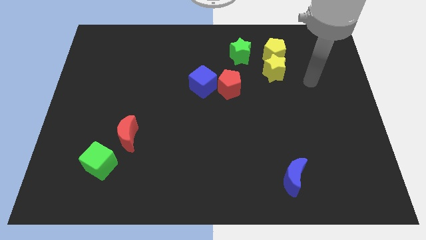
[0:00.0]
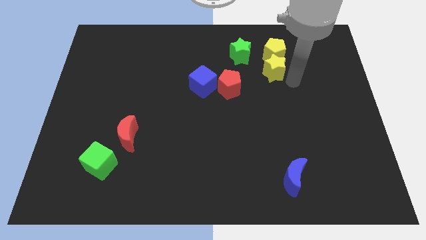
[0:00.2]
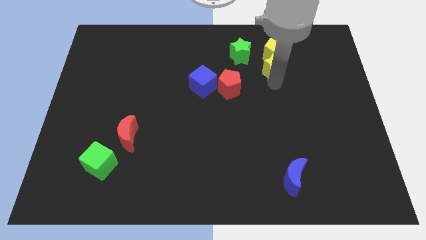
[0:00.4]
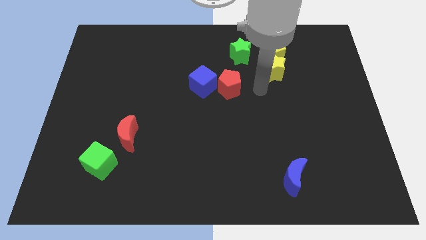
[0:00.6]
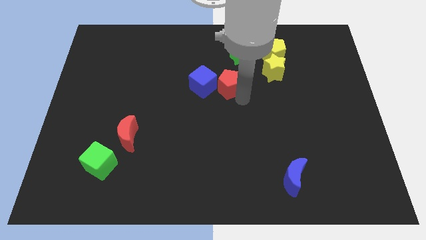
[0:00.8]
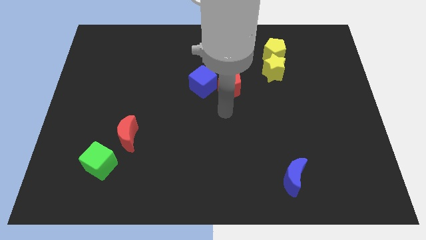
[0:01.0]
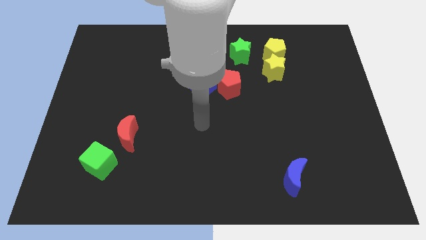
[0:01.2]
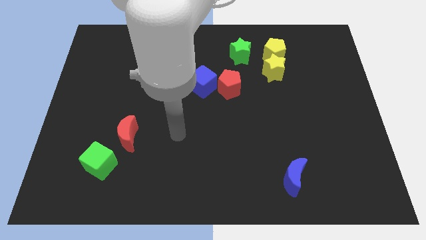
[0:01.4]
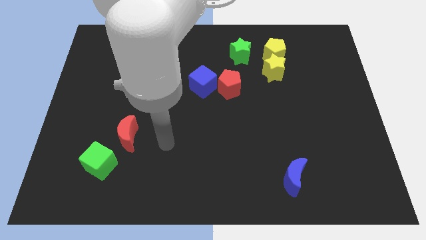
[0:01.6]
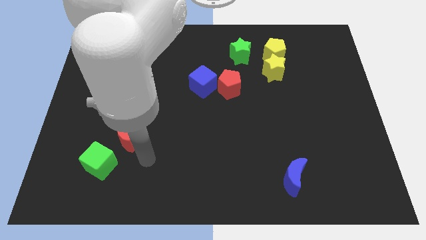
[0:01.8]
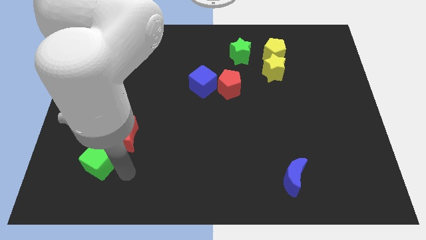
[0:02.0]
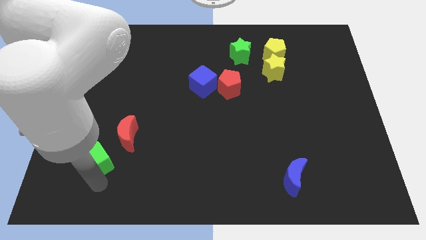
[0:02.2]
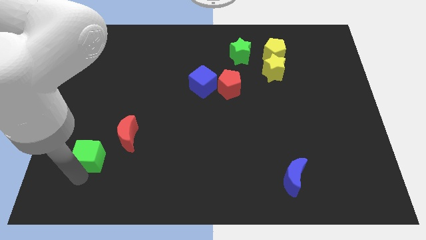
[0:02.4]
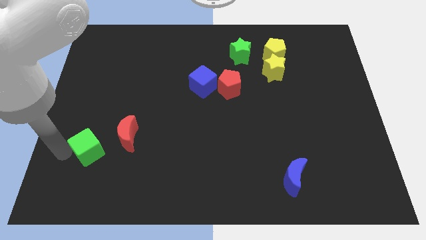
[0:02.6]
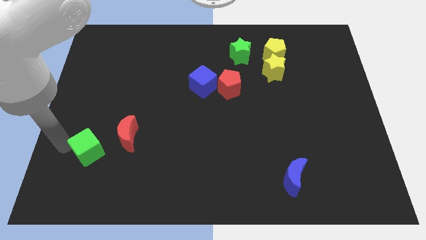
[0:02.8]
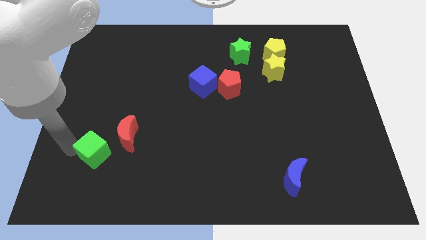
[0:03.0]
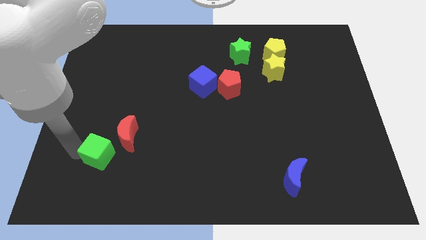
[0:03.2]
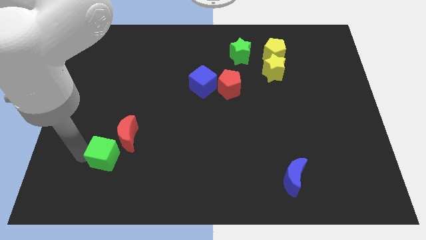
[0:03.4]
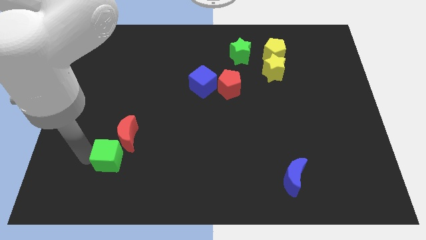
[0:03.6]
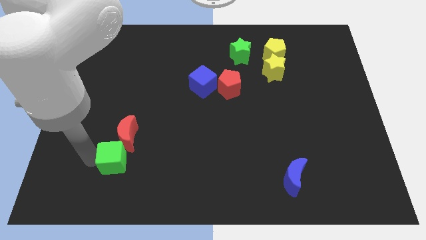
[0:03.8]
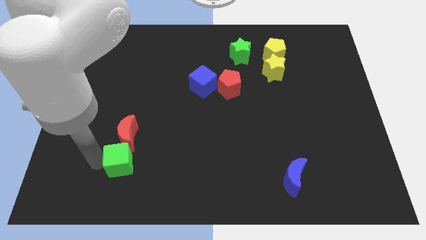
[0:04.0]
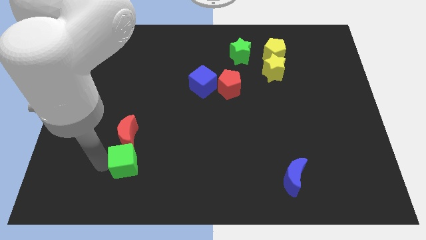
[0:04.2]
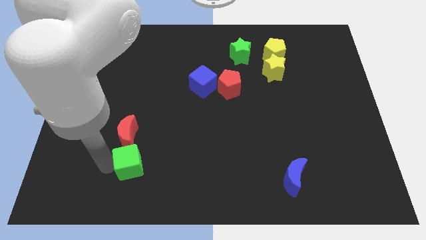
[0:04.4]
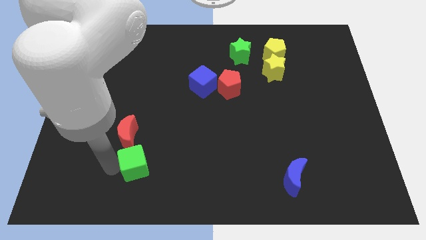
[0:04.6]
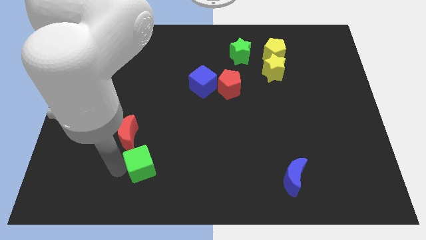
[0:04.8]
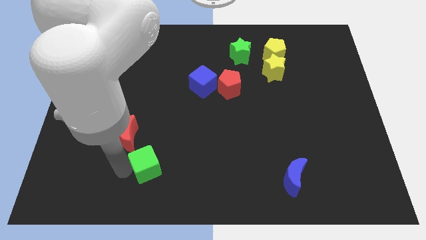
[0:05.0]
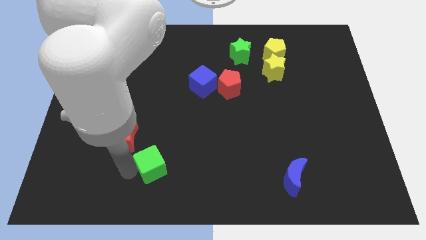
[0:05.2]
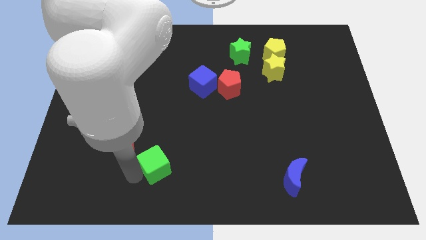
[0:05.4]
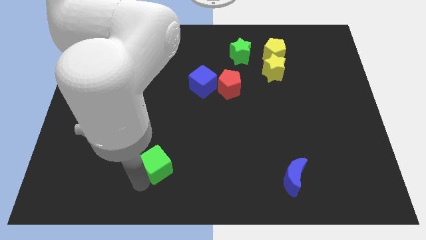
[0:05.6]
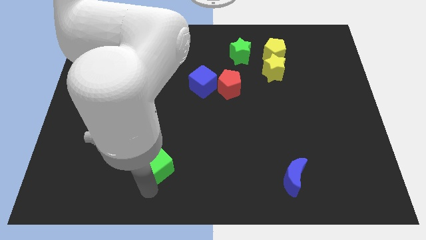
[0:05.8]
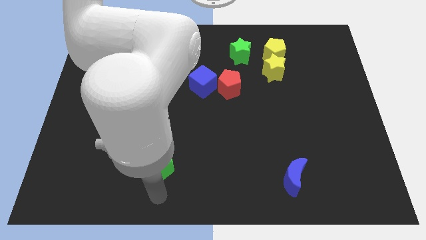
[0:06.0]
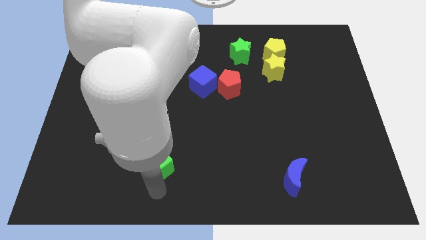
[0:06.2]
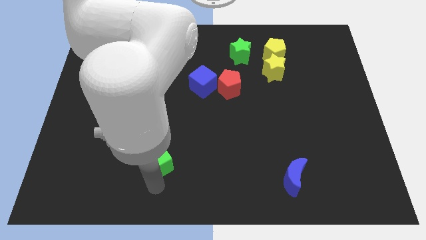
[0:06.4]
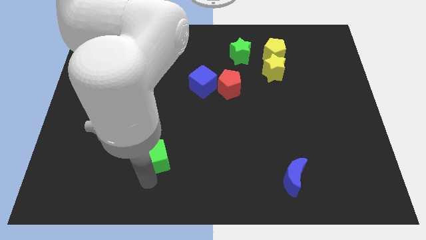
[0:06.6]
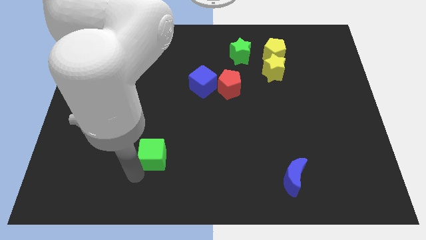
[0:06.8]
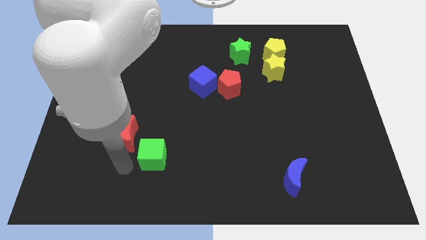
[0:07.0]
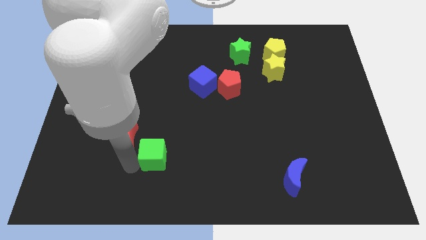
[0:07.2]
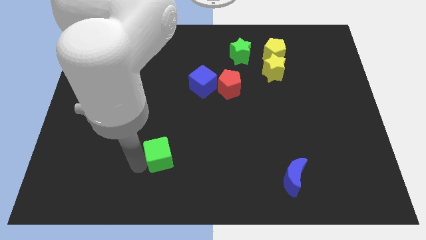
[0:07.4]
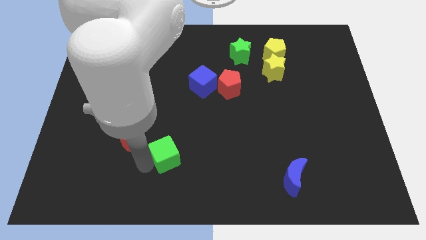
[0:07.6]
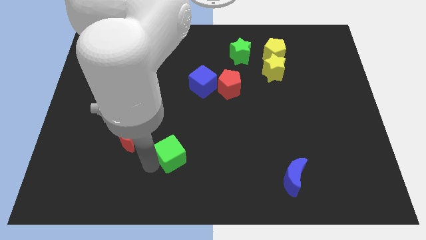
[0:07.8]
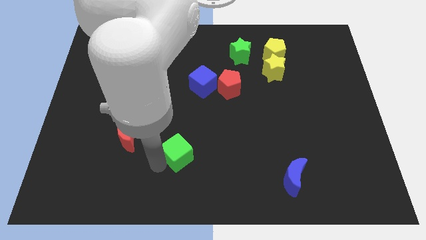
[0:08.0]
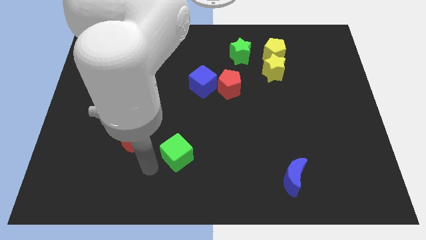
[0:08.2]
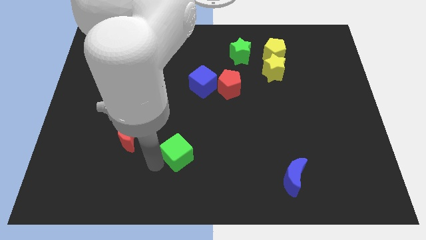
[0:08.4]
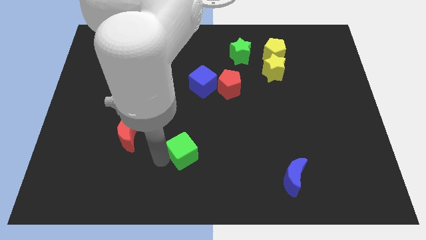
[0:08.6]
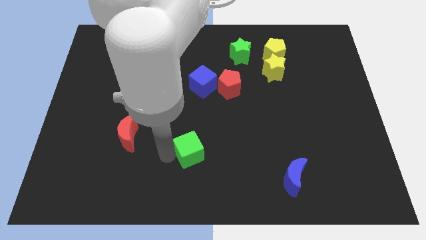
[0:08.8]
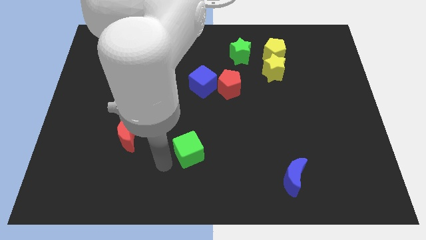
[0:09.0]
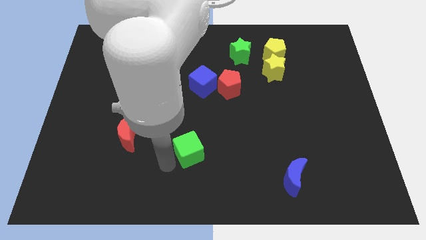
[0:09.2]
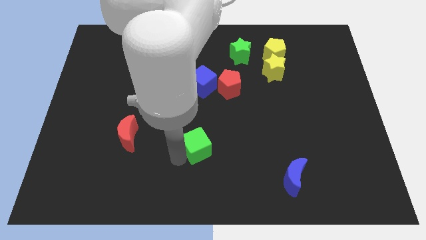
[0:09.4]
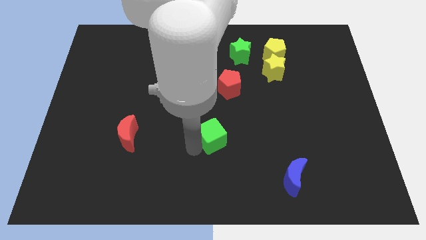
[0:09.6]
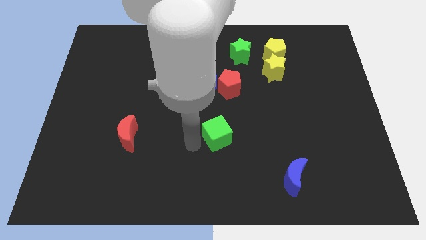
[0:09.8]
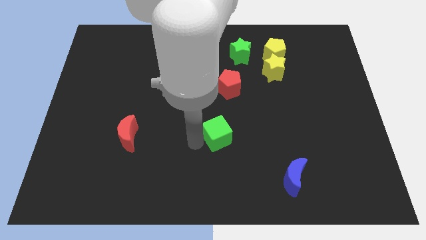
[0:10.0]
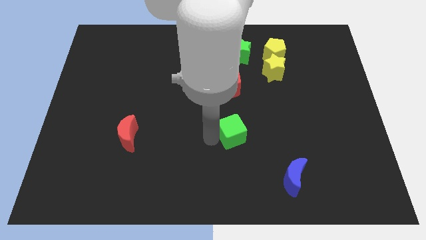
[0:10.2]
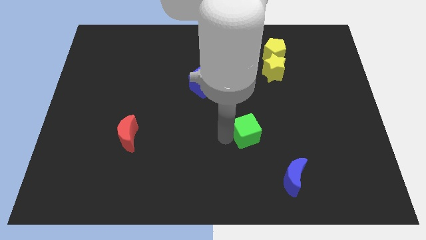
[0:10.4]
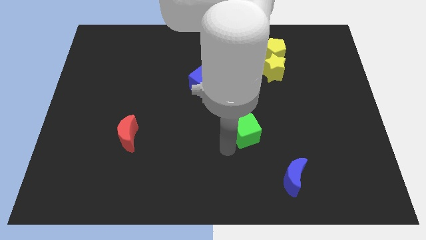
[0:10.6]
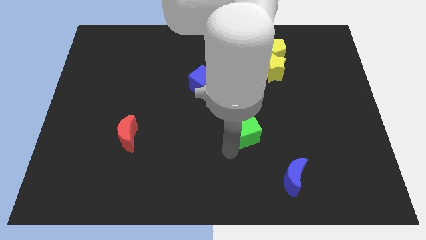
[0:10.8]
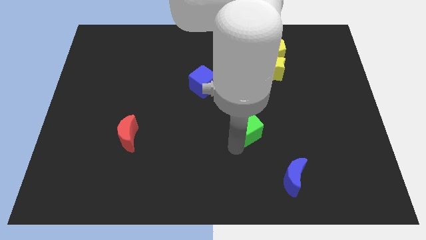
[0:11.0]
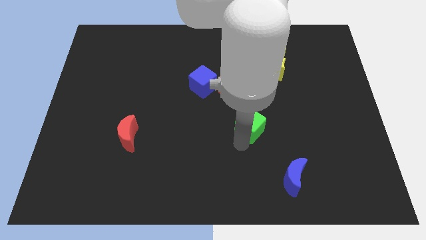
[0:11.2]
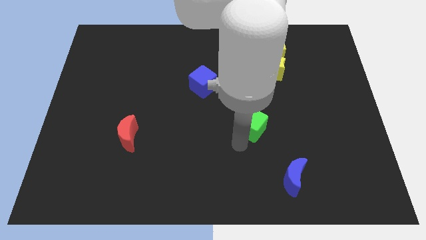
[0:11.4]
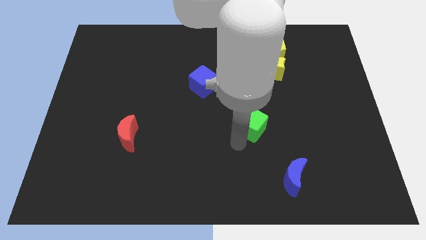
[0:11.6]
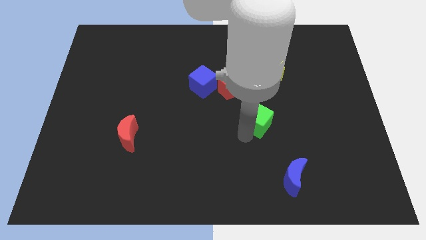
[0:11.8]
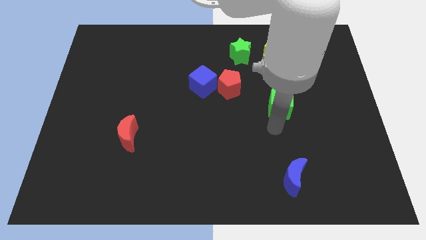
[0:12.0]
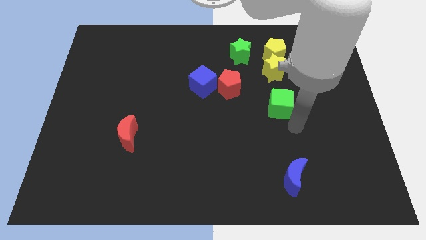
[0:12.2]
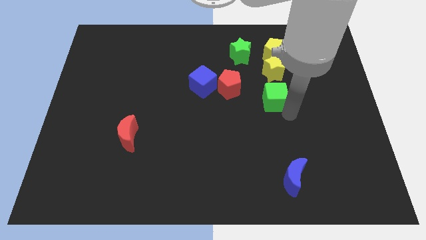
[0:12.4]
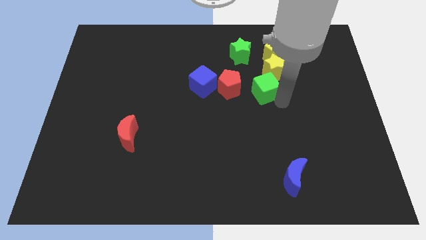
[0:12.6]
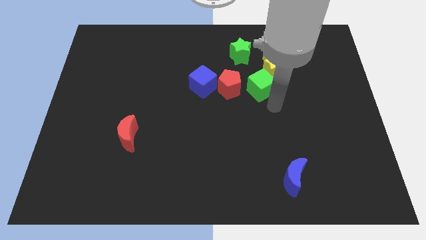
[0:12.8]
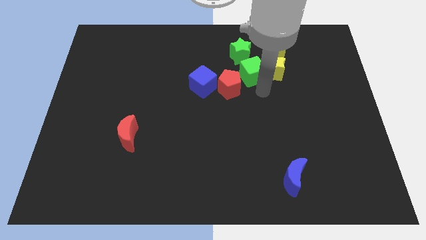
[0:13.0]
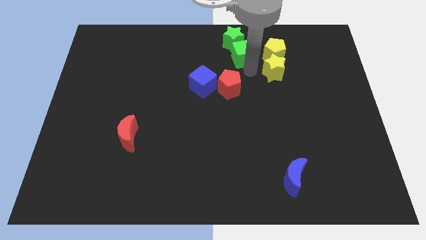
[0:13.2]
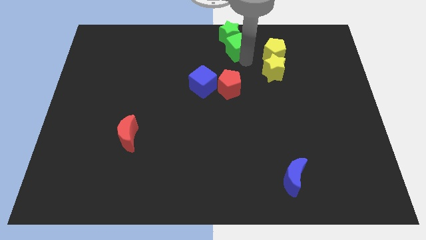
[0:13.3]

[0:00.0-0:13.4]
push the green cube to the top
